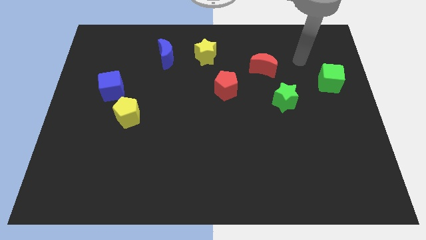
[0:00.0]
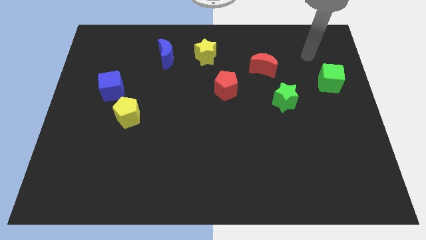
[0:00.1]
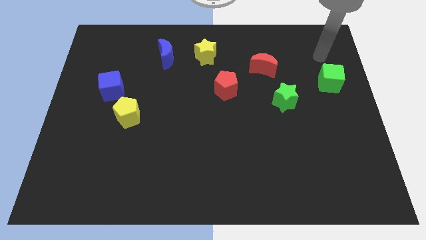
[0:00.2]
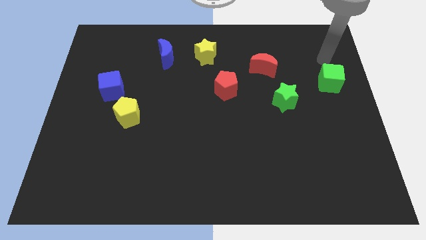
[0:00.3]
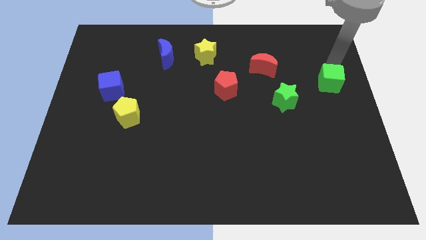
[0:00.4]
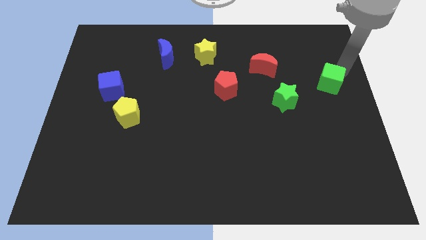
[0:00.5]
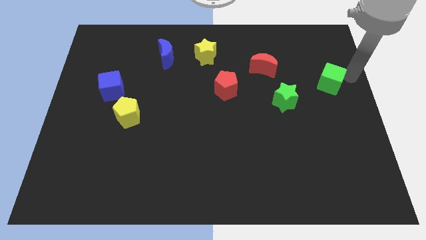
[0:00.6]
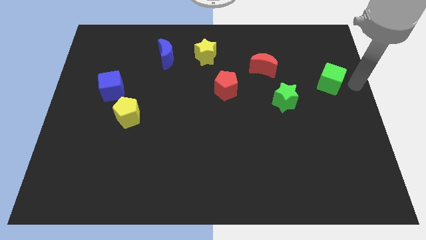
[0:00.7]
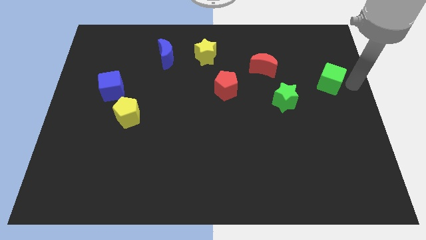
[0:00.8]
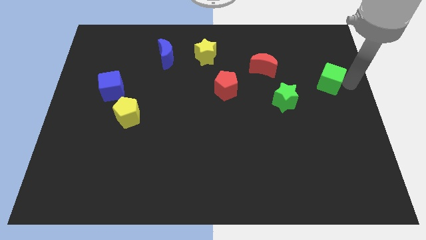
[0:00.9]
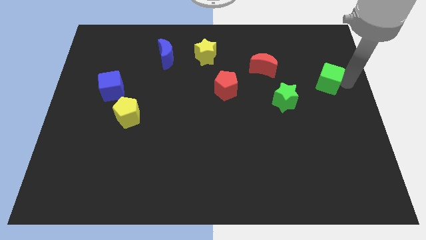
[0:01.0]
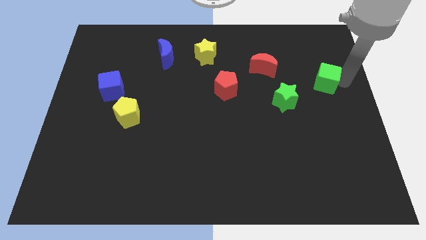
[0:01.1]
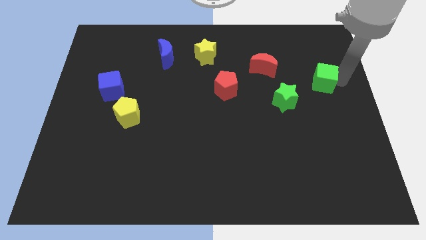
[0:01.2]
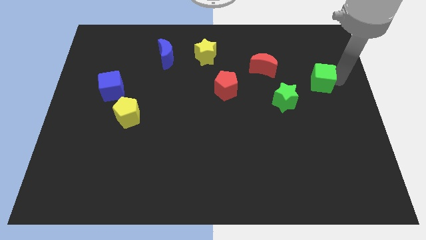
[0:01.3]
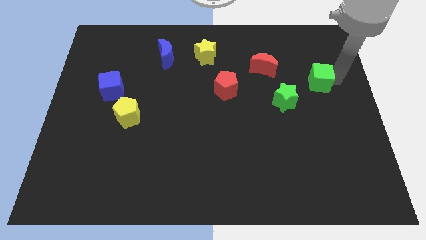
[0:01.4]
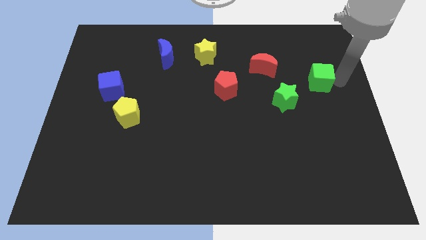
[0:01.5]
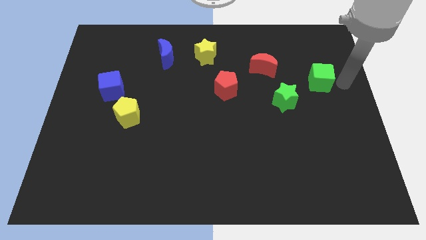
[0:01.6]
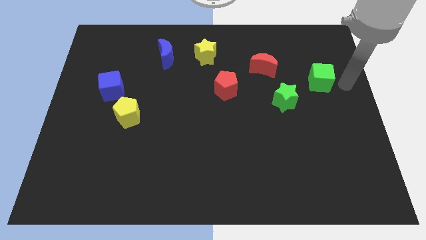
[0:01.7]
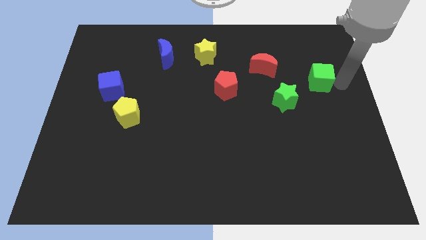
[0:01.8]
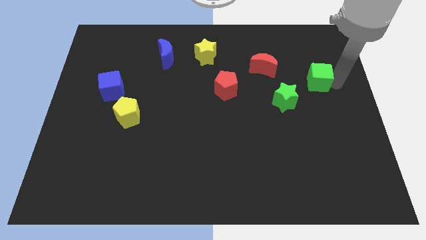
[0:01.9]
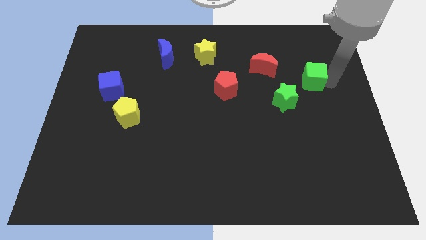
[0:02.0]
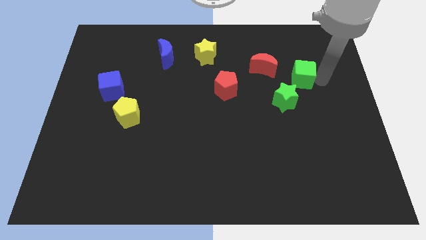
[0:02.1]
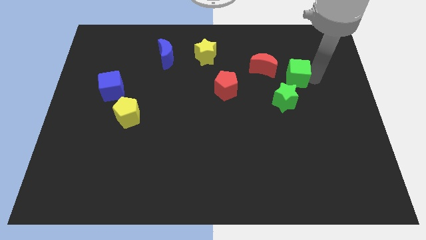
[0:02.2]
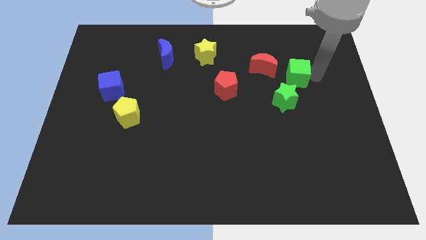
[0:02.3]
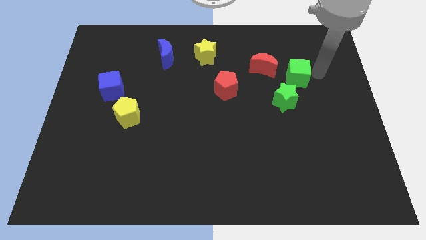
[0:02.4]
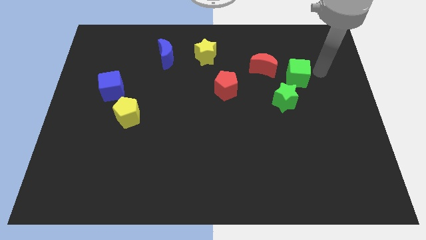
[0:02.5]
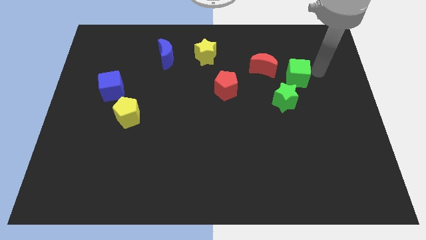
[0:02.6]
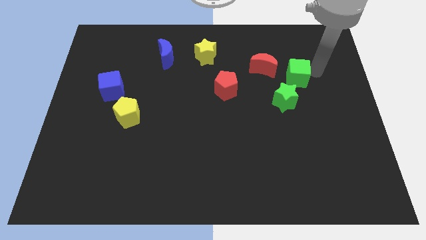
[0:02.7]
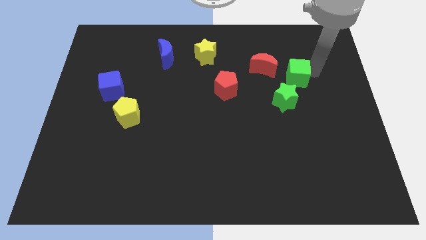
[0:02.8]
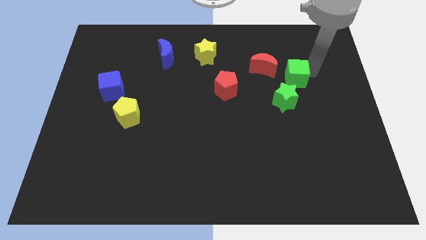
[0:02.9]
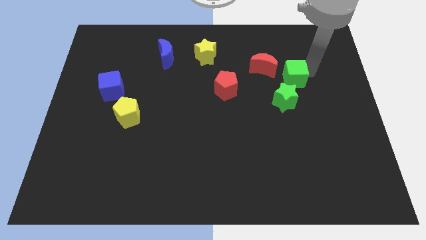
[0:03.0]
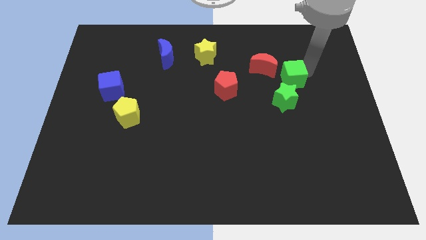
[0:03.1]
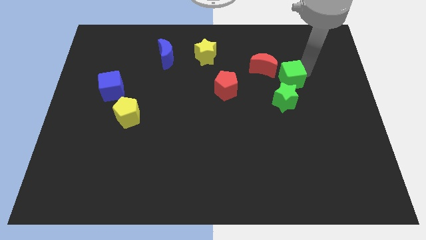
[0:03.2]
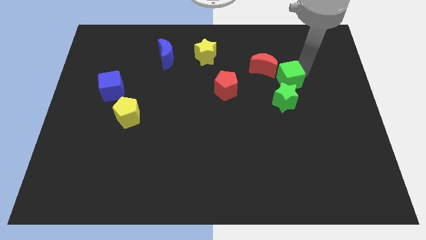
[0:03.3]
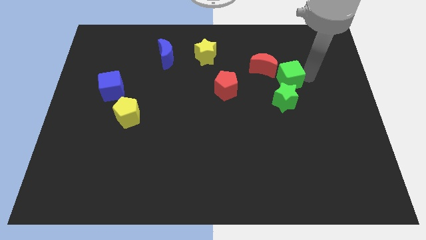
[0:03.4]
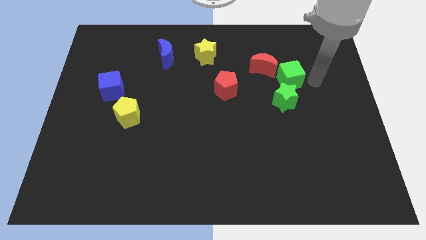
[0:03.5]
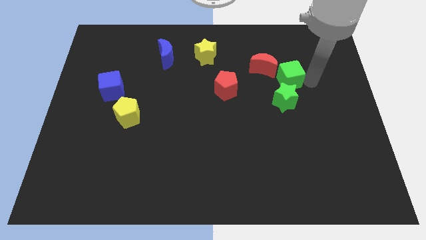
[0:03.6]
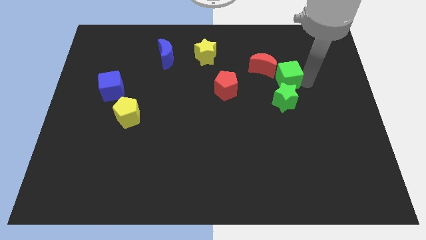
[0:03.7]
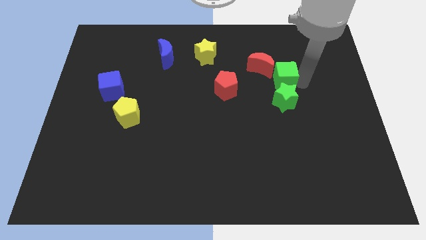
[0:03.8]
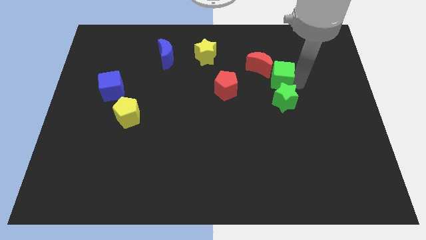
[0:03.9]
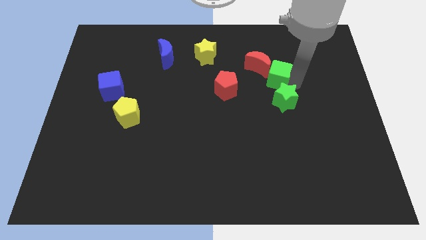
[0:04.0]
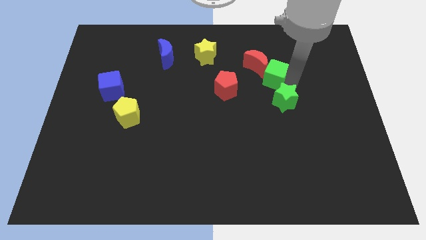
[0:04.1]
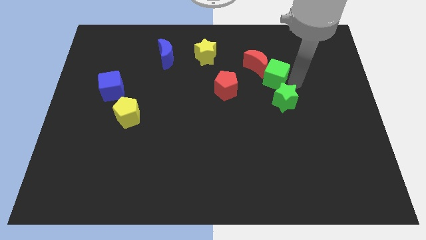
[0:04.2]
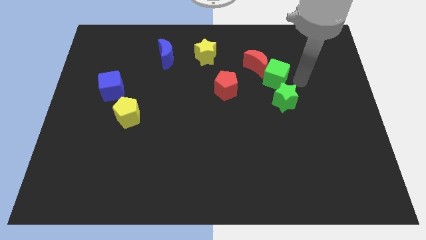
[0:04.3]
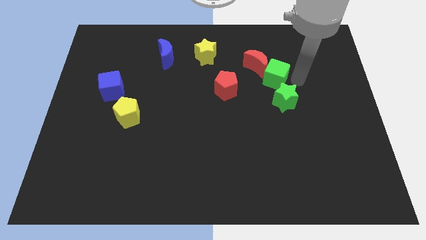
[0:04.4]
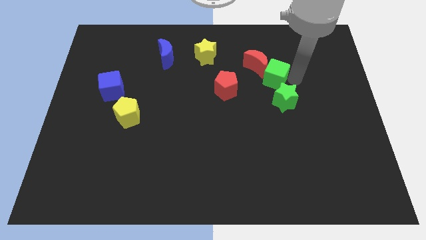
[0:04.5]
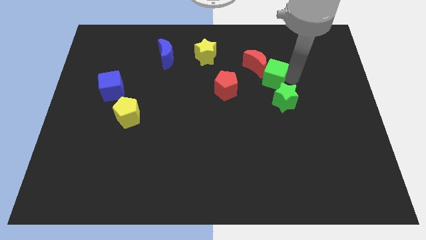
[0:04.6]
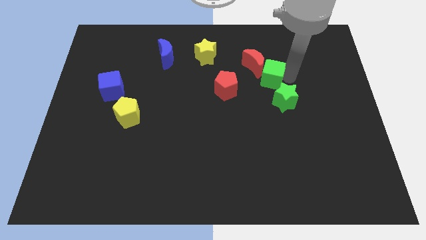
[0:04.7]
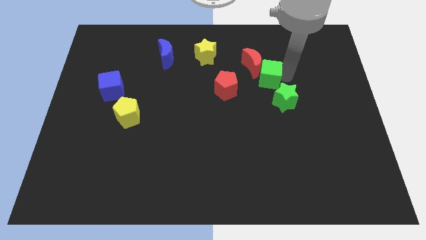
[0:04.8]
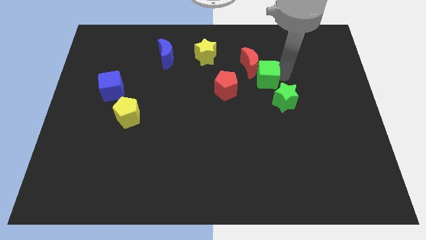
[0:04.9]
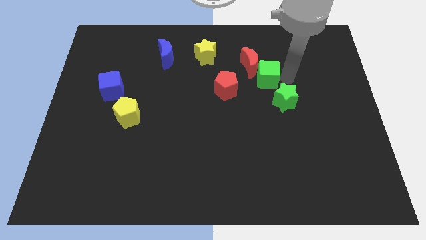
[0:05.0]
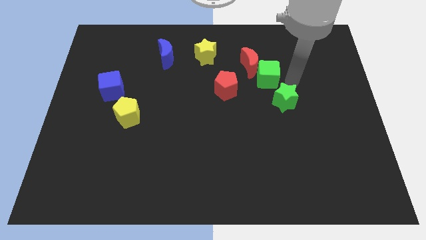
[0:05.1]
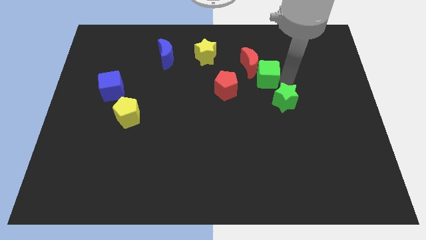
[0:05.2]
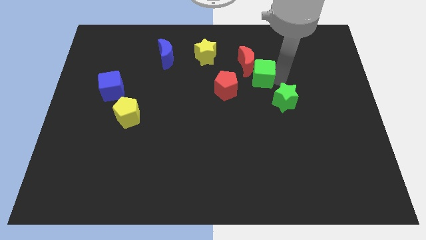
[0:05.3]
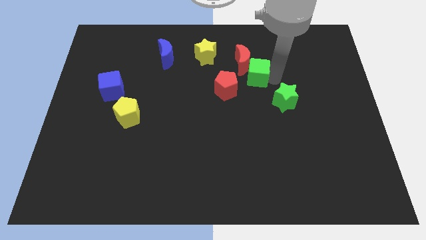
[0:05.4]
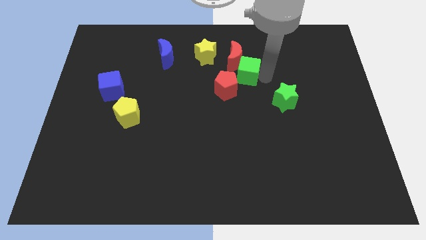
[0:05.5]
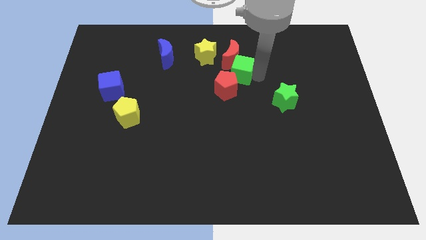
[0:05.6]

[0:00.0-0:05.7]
move the green cube to the bottom right side of the yellow star

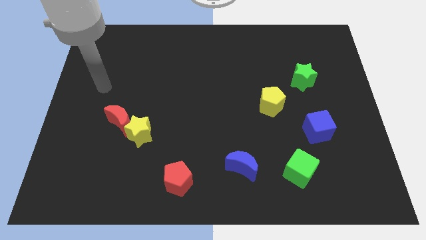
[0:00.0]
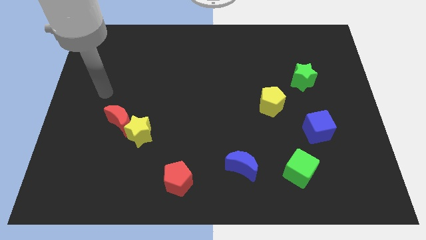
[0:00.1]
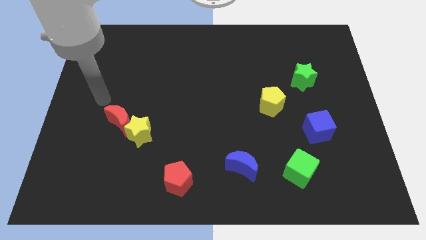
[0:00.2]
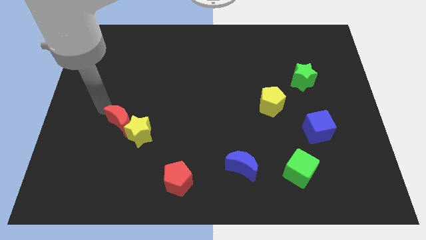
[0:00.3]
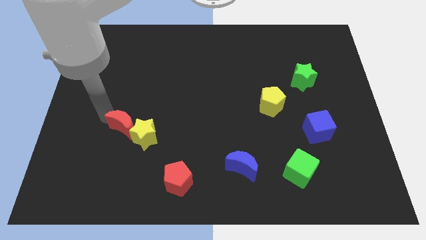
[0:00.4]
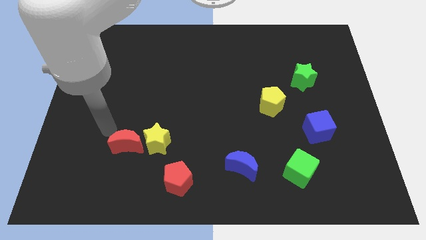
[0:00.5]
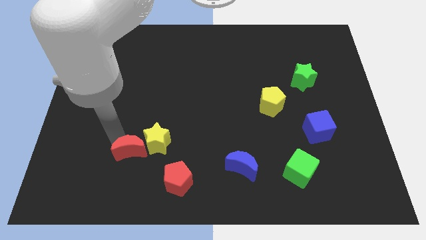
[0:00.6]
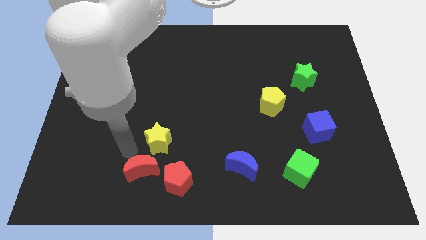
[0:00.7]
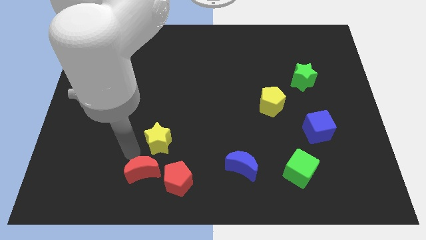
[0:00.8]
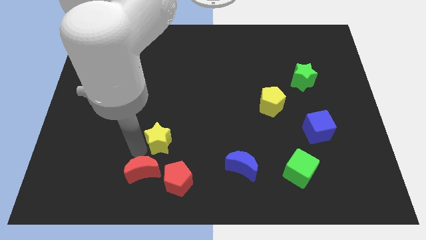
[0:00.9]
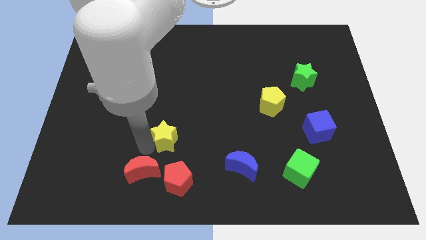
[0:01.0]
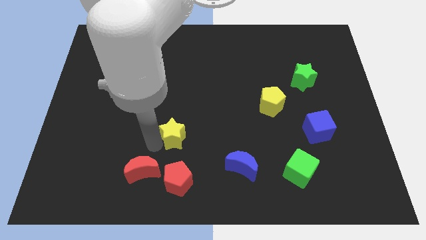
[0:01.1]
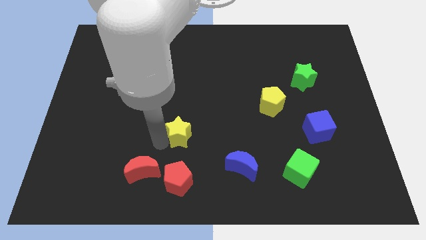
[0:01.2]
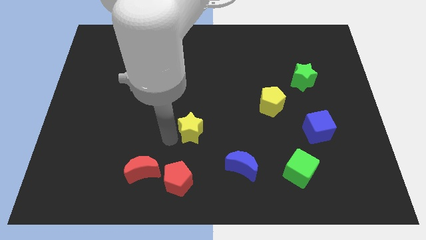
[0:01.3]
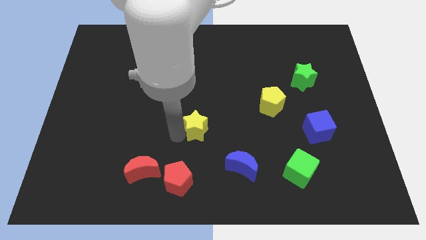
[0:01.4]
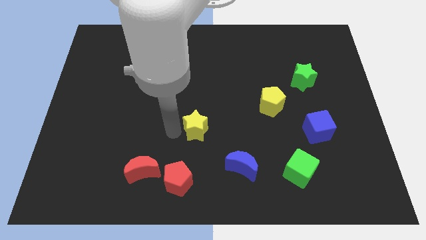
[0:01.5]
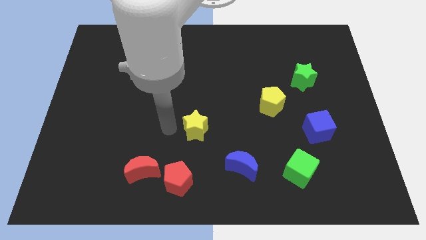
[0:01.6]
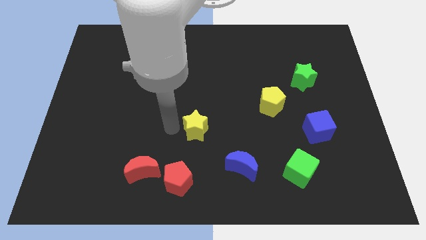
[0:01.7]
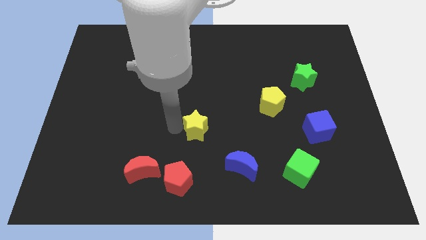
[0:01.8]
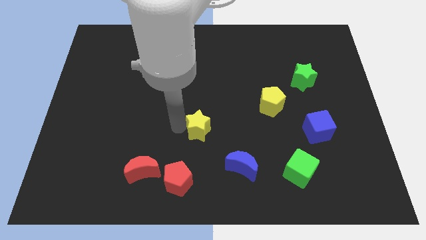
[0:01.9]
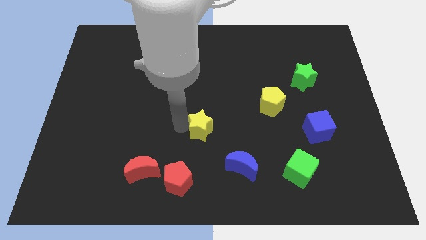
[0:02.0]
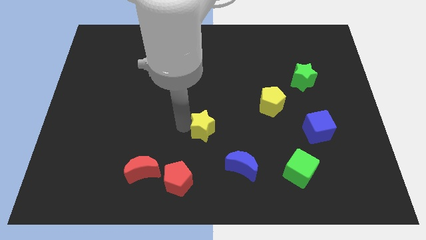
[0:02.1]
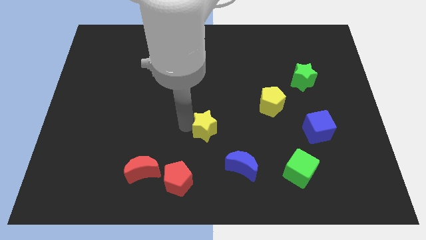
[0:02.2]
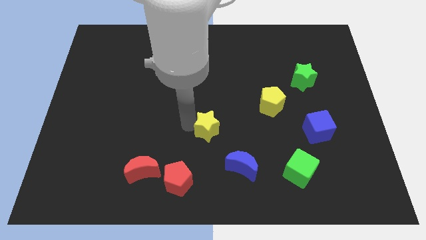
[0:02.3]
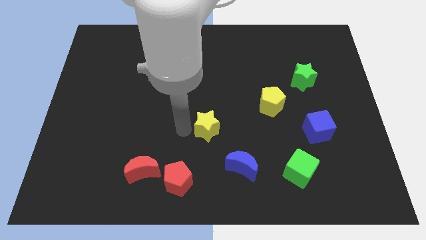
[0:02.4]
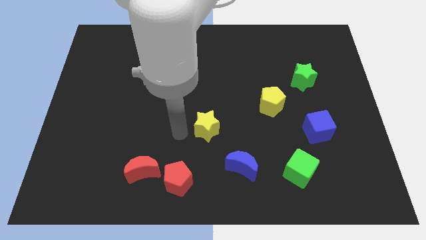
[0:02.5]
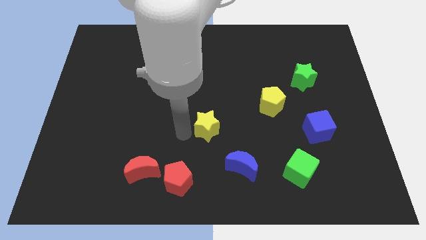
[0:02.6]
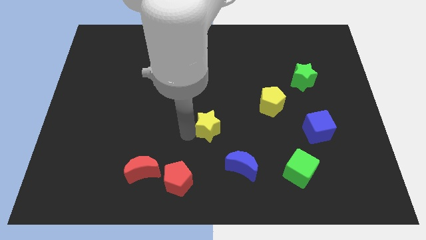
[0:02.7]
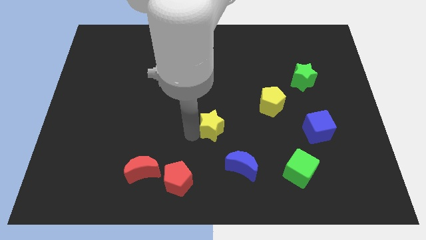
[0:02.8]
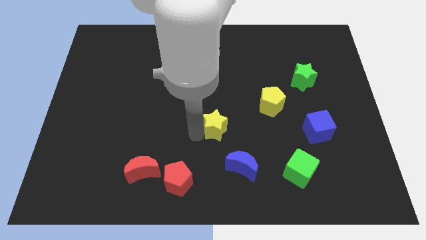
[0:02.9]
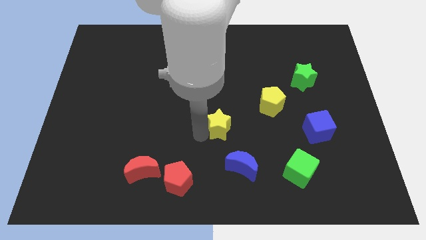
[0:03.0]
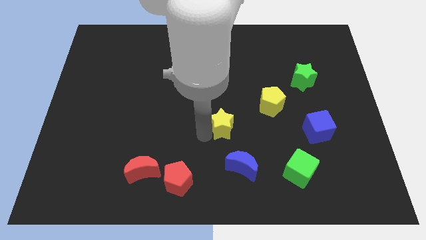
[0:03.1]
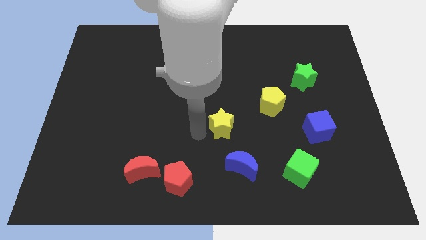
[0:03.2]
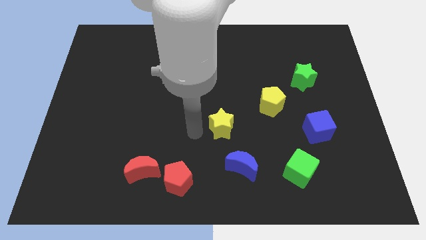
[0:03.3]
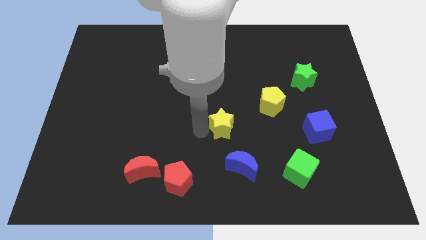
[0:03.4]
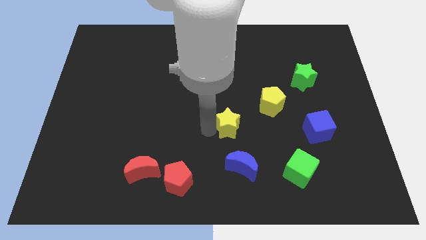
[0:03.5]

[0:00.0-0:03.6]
move the yellow star to the bottom left of the yellow pentagon
